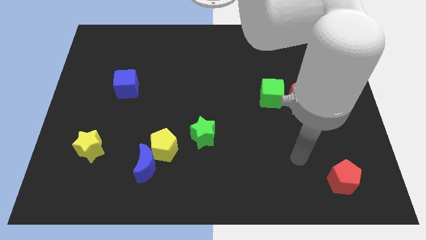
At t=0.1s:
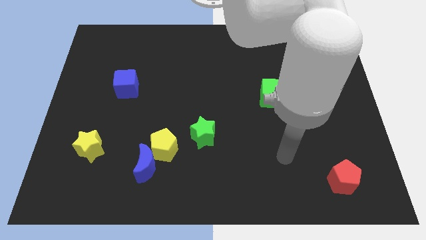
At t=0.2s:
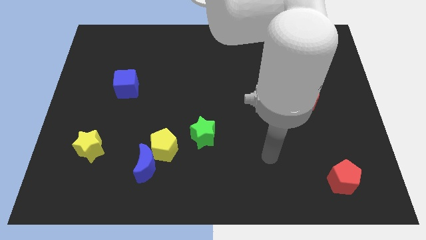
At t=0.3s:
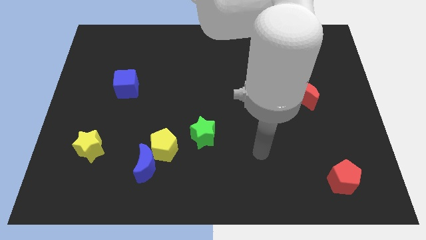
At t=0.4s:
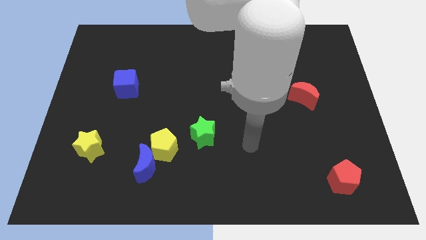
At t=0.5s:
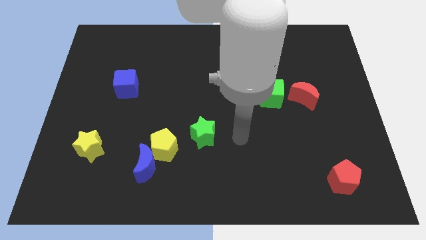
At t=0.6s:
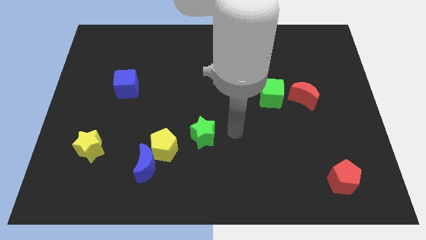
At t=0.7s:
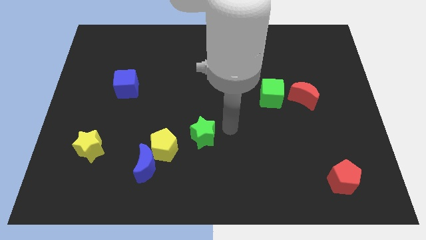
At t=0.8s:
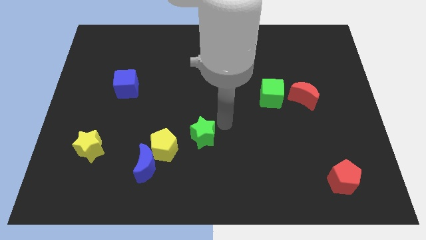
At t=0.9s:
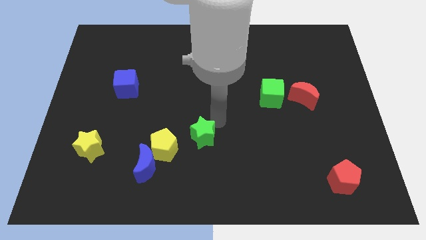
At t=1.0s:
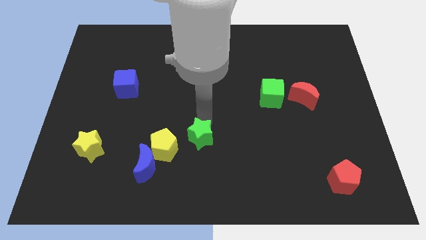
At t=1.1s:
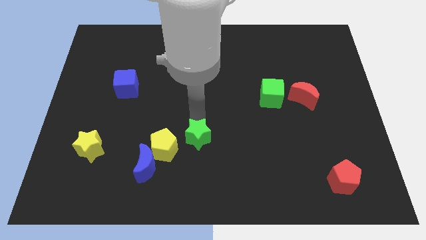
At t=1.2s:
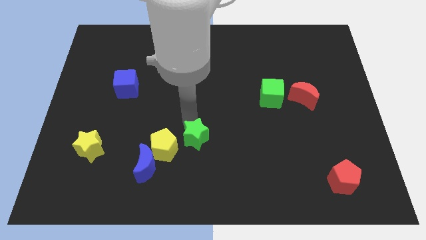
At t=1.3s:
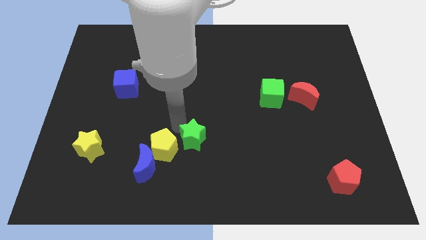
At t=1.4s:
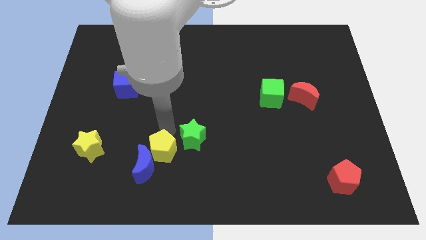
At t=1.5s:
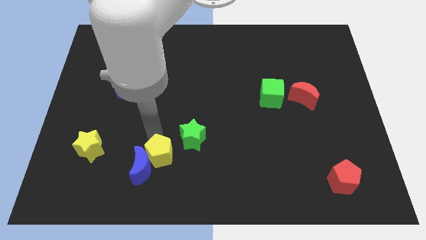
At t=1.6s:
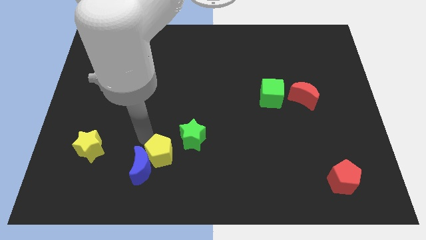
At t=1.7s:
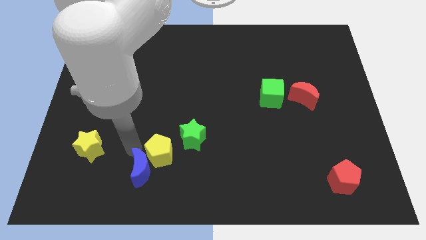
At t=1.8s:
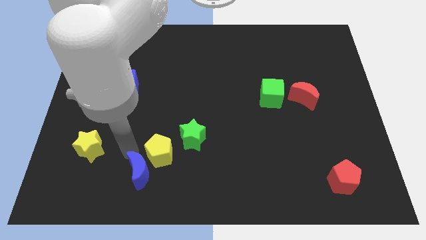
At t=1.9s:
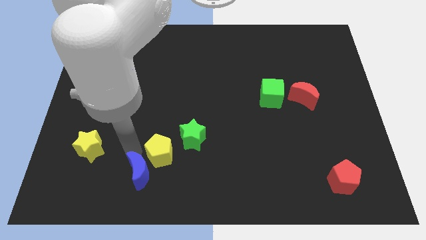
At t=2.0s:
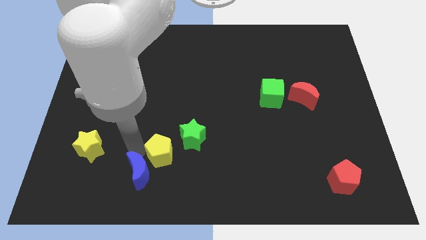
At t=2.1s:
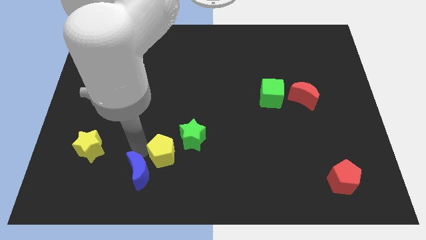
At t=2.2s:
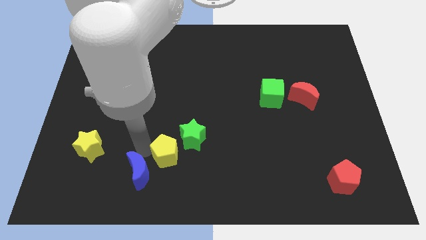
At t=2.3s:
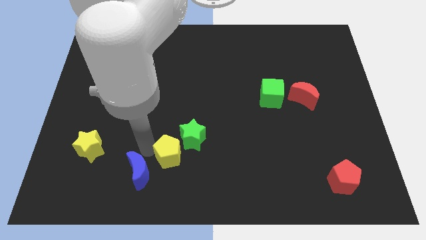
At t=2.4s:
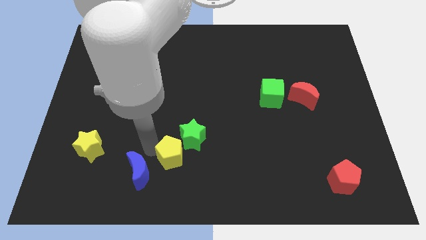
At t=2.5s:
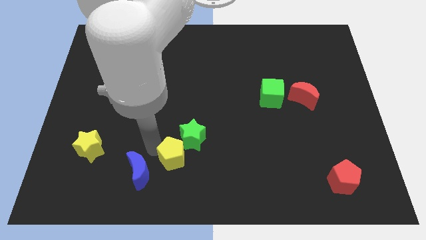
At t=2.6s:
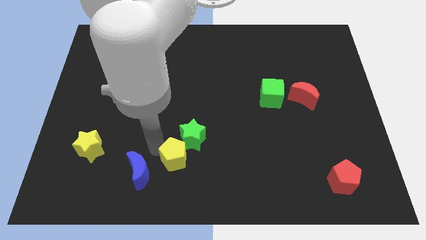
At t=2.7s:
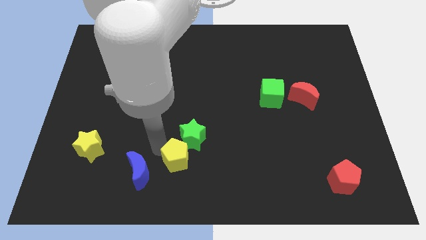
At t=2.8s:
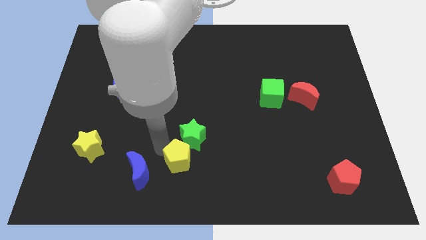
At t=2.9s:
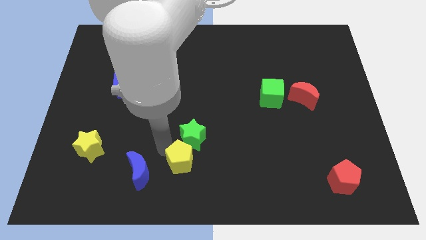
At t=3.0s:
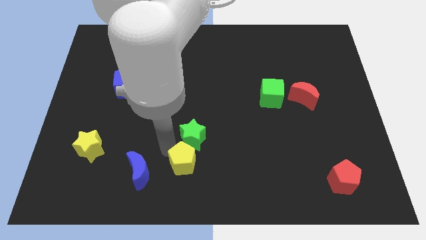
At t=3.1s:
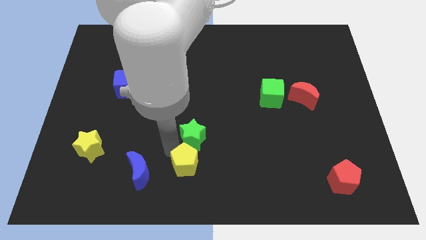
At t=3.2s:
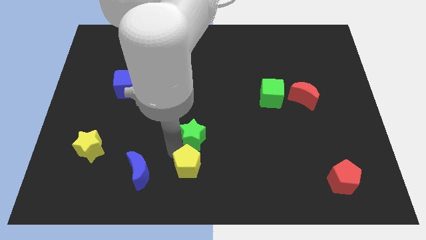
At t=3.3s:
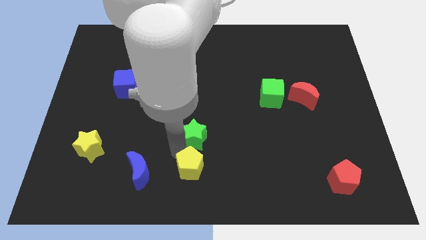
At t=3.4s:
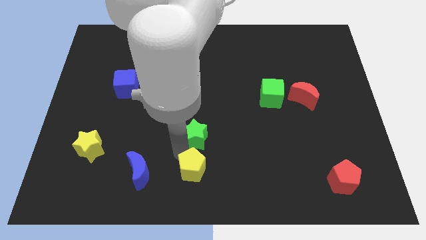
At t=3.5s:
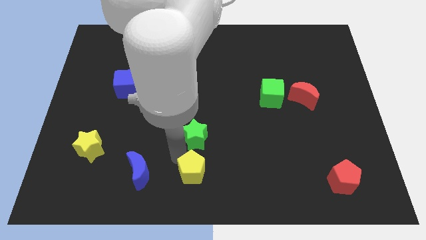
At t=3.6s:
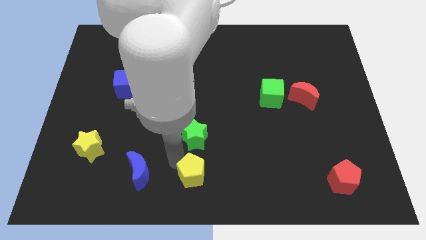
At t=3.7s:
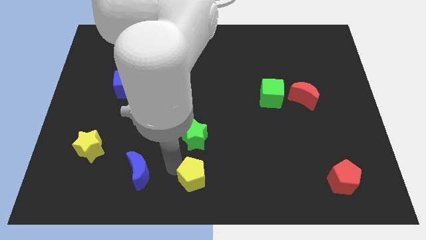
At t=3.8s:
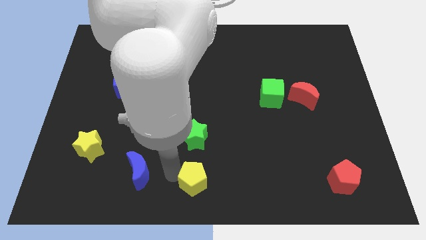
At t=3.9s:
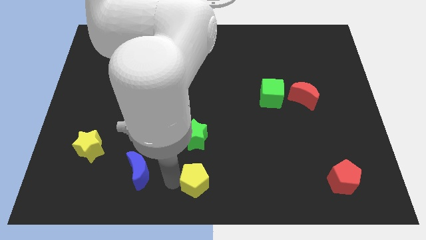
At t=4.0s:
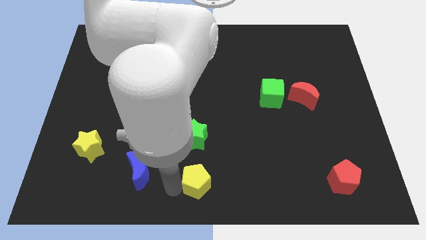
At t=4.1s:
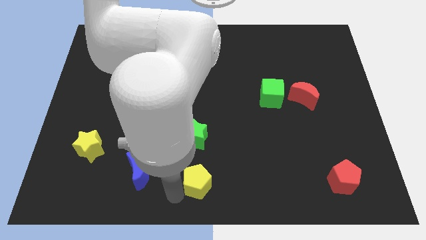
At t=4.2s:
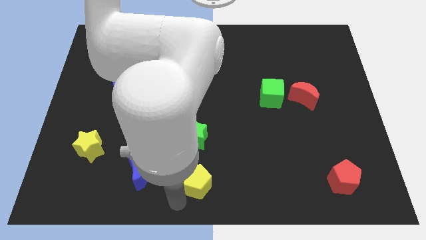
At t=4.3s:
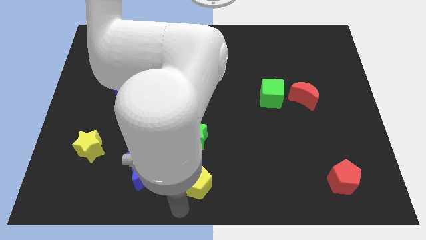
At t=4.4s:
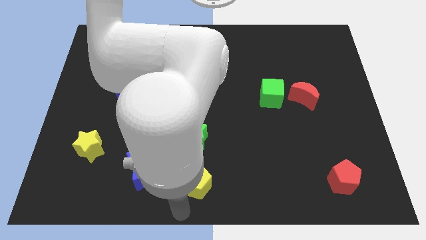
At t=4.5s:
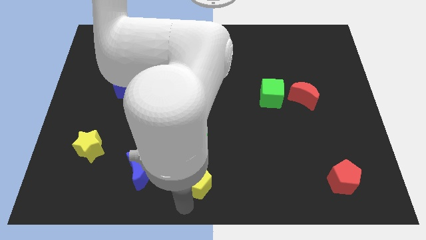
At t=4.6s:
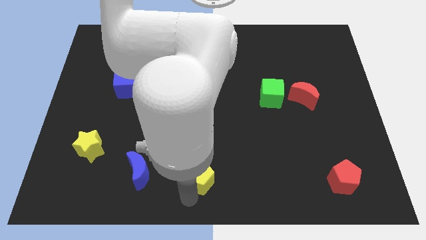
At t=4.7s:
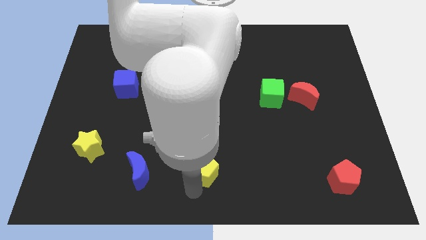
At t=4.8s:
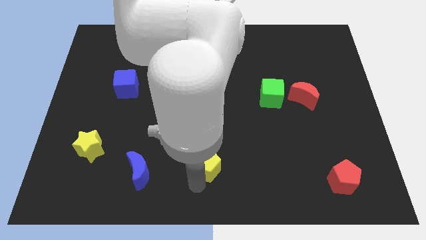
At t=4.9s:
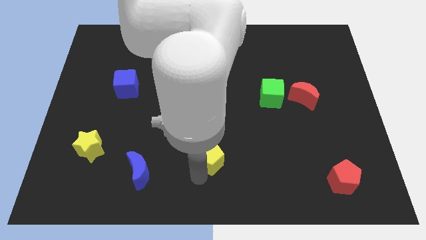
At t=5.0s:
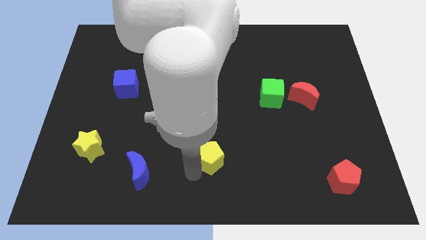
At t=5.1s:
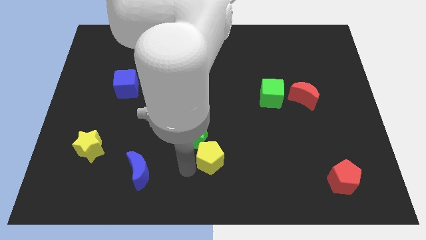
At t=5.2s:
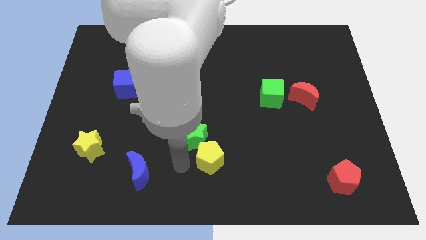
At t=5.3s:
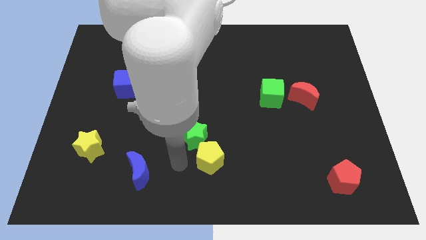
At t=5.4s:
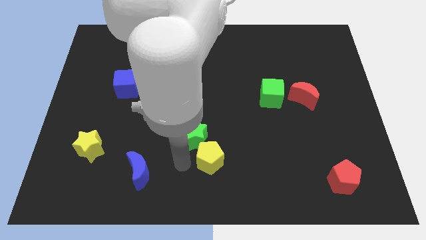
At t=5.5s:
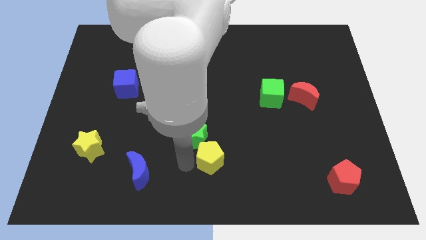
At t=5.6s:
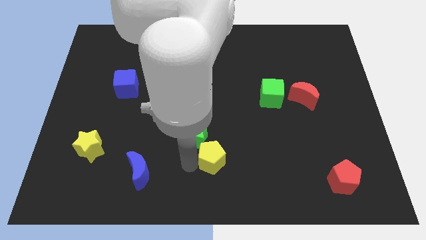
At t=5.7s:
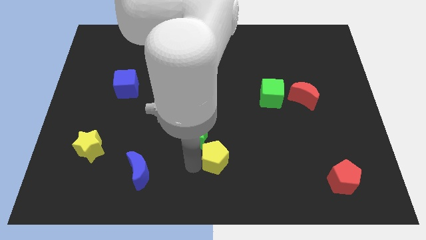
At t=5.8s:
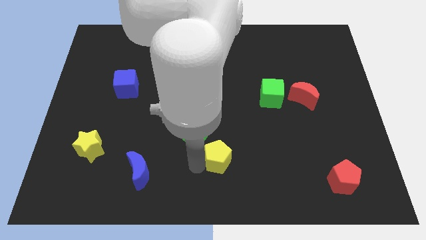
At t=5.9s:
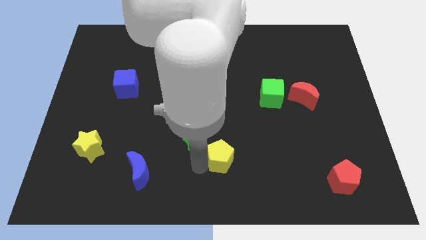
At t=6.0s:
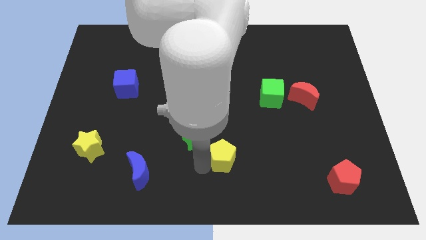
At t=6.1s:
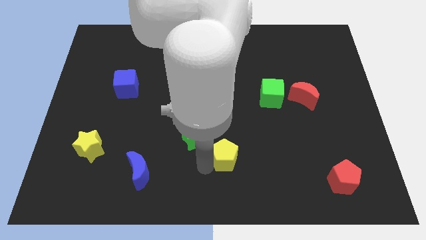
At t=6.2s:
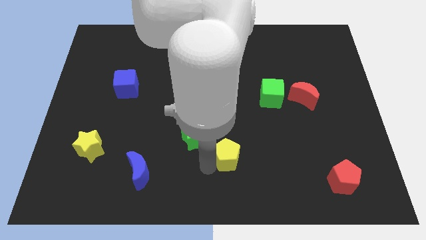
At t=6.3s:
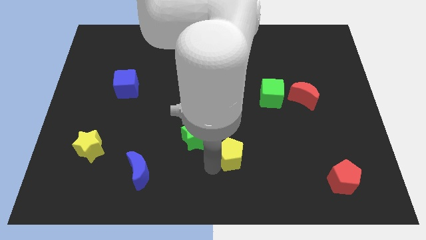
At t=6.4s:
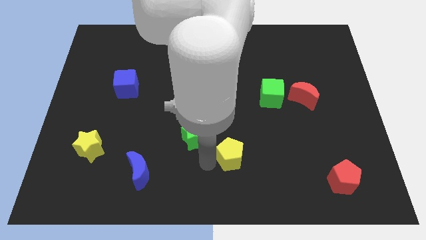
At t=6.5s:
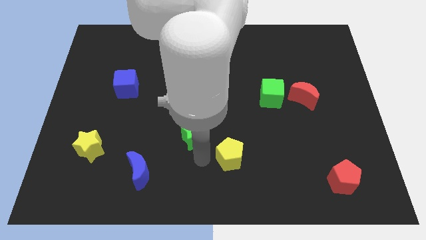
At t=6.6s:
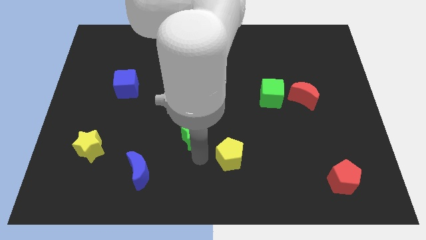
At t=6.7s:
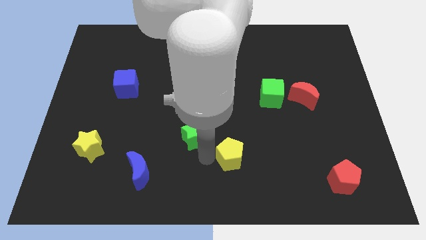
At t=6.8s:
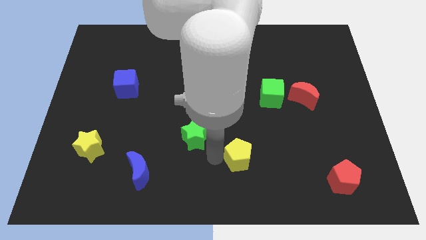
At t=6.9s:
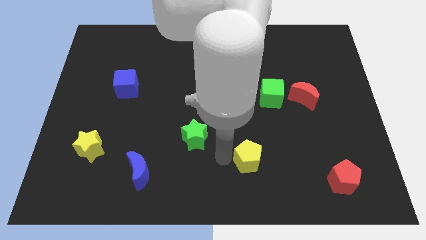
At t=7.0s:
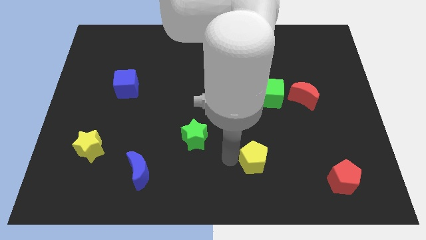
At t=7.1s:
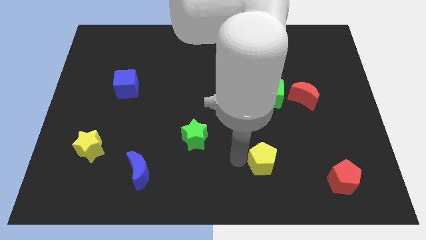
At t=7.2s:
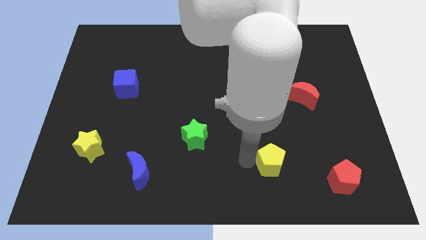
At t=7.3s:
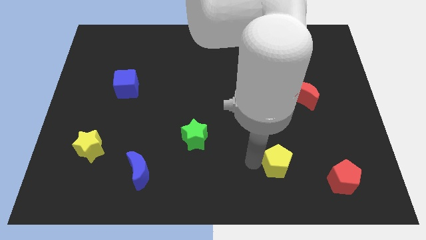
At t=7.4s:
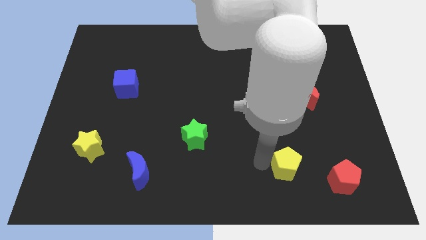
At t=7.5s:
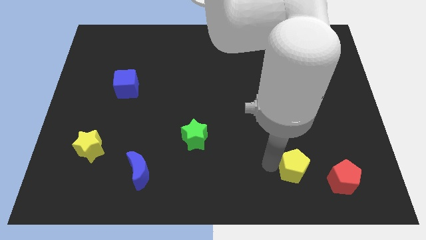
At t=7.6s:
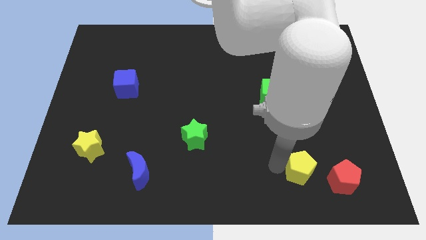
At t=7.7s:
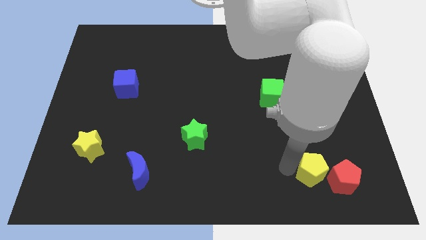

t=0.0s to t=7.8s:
slide the yellow pentagon next to the red pentagon
